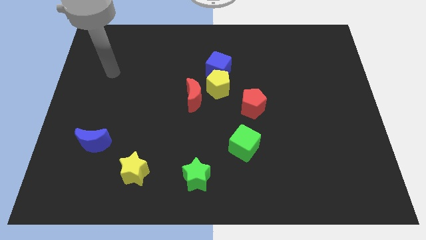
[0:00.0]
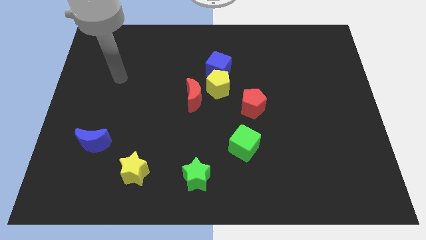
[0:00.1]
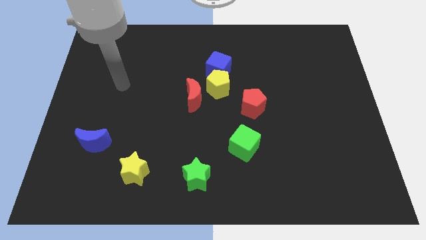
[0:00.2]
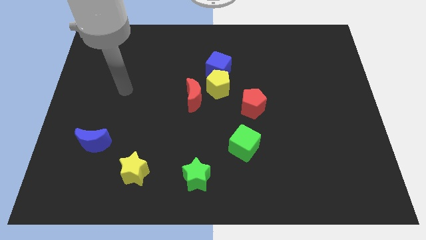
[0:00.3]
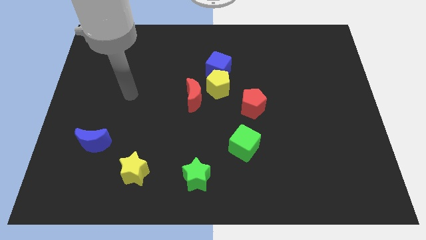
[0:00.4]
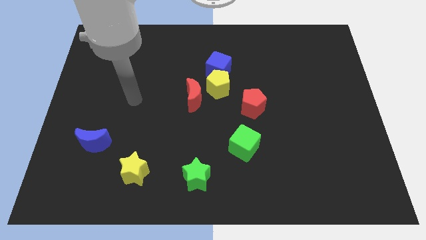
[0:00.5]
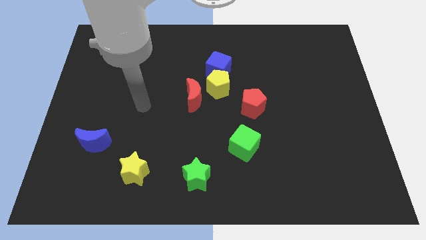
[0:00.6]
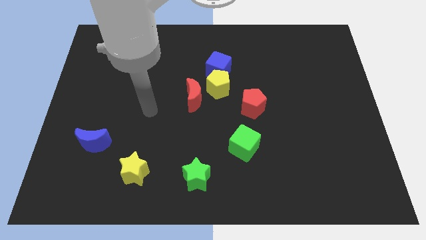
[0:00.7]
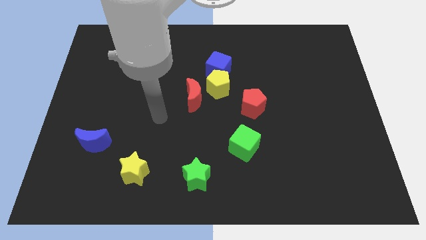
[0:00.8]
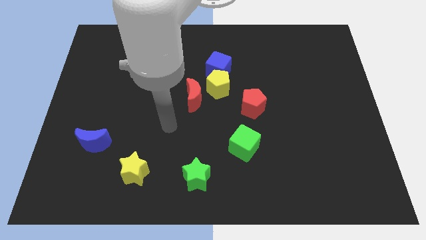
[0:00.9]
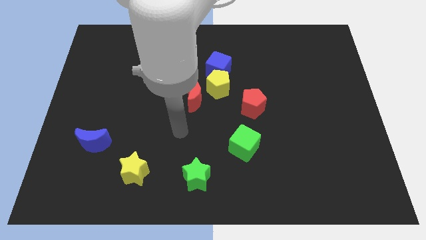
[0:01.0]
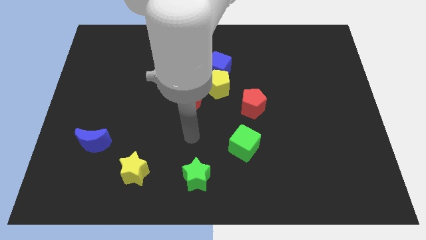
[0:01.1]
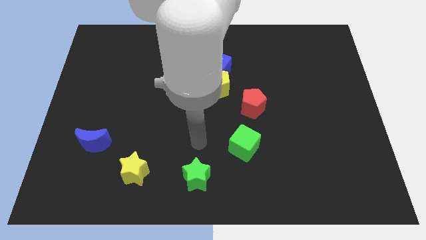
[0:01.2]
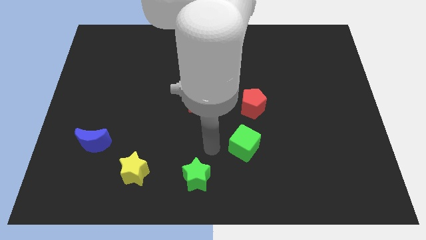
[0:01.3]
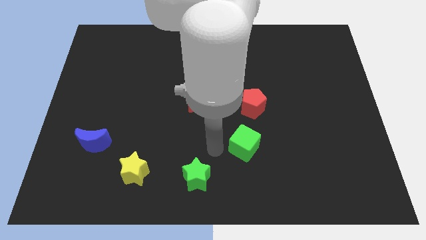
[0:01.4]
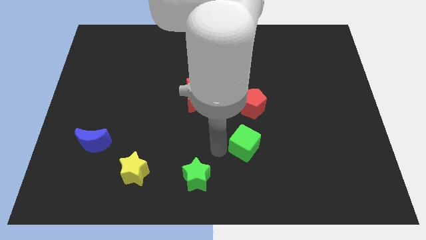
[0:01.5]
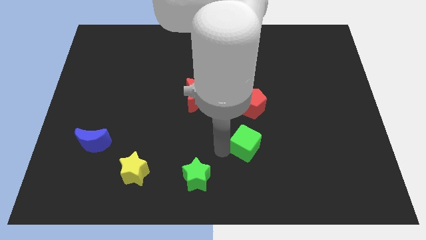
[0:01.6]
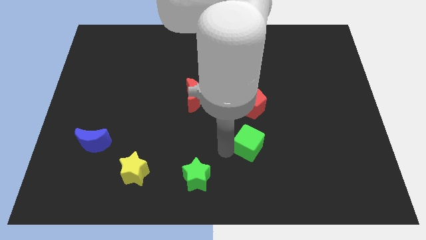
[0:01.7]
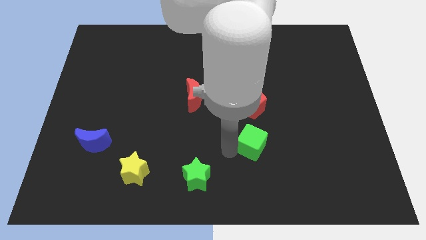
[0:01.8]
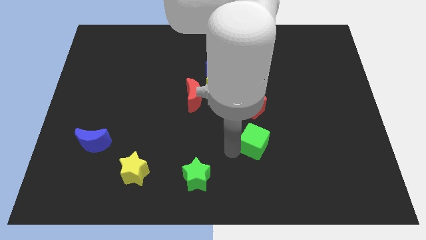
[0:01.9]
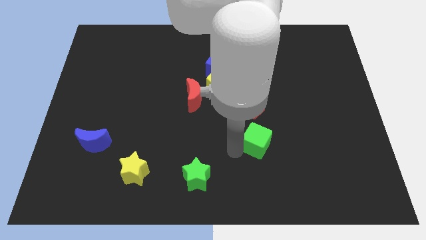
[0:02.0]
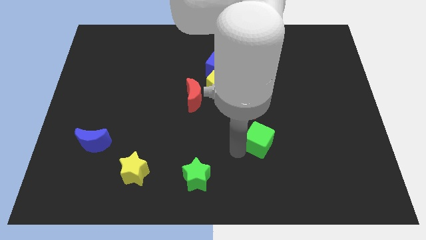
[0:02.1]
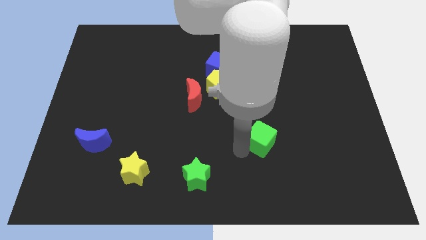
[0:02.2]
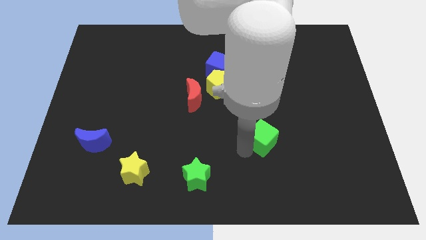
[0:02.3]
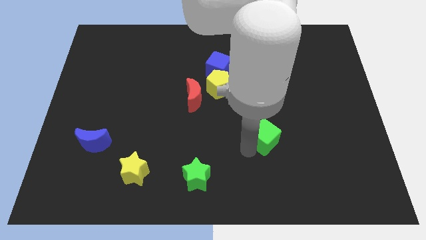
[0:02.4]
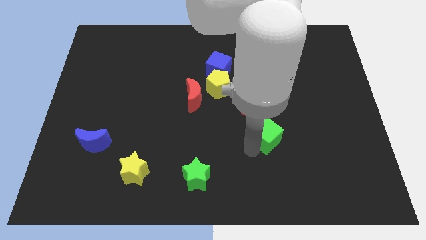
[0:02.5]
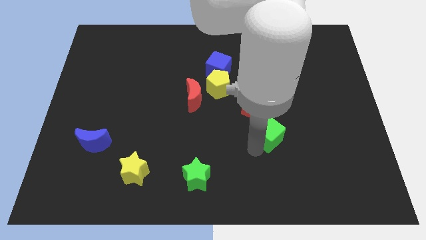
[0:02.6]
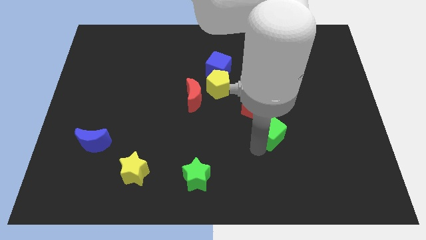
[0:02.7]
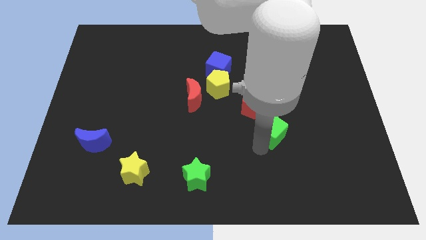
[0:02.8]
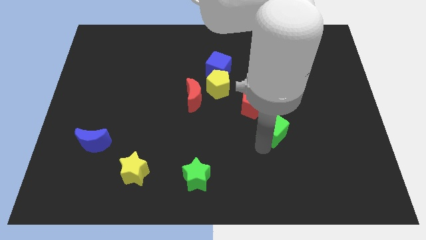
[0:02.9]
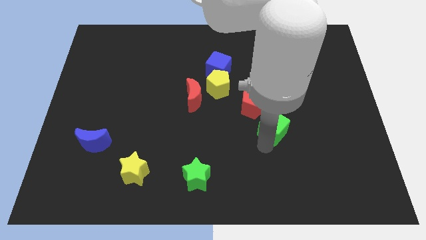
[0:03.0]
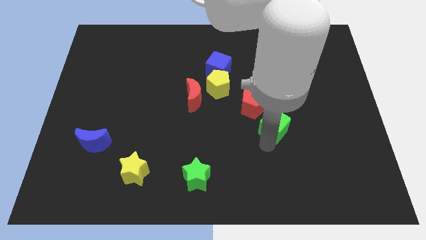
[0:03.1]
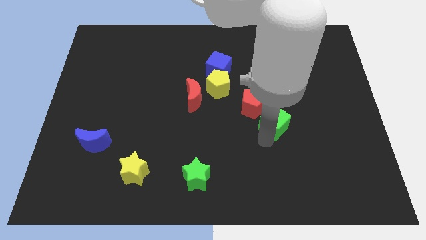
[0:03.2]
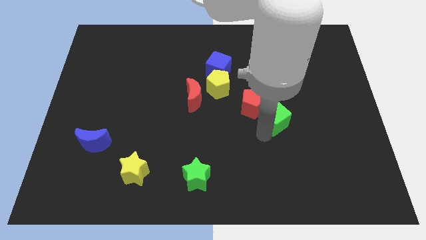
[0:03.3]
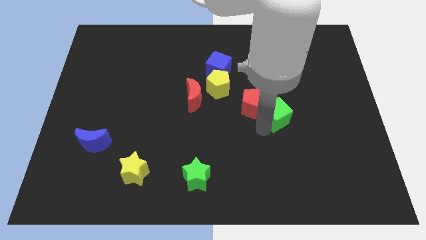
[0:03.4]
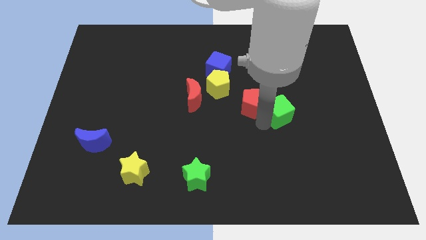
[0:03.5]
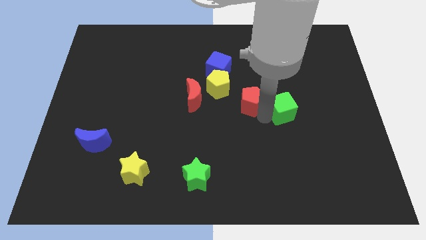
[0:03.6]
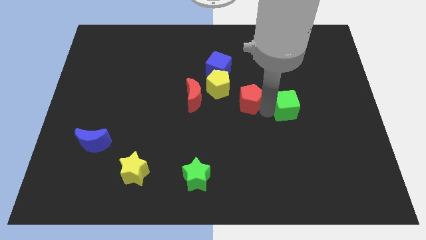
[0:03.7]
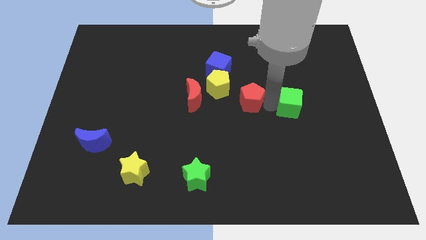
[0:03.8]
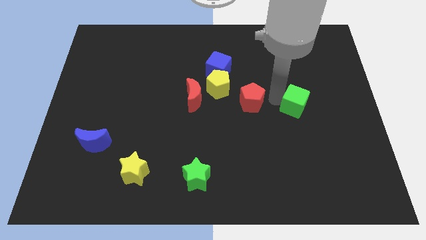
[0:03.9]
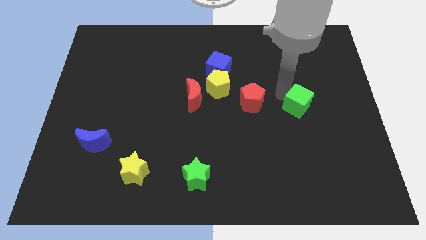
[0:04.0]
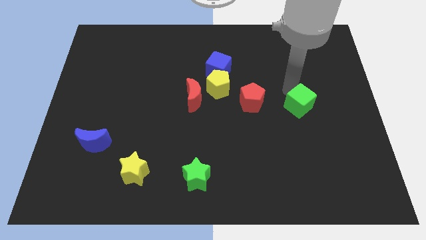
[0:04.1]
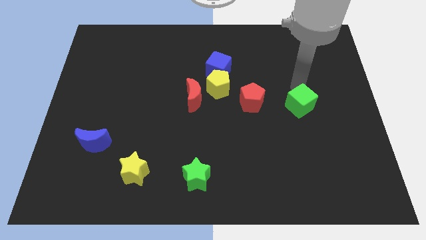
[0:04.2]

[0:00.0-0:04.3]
slightly slide the green cube to the right

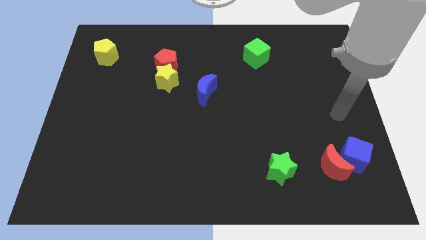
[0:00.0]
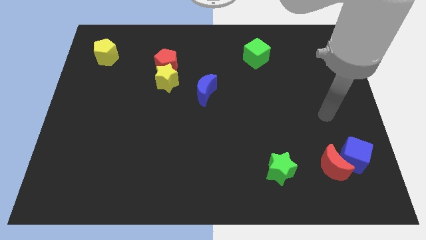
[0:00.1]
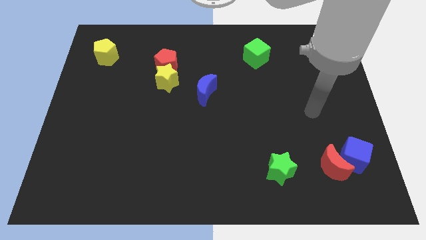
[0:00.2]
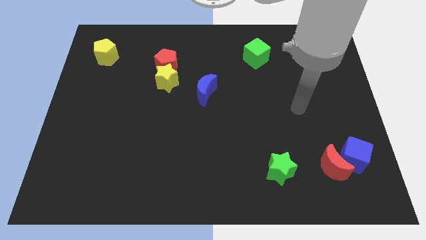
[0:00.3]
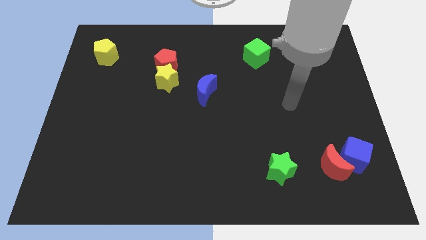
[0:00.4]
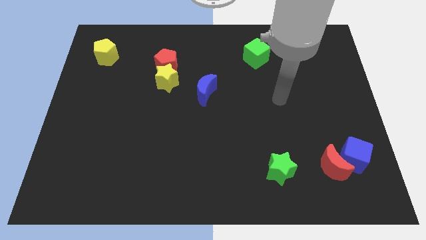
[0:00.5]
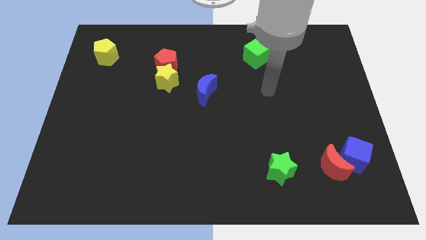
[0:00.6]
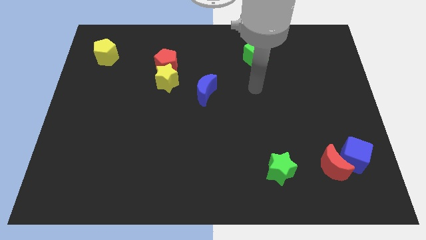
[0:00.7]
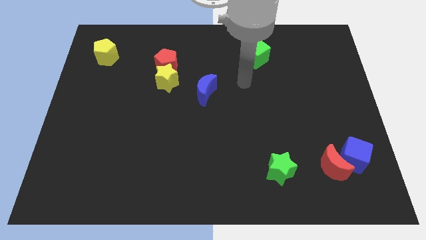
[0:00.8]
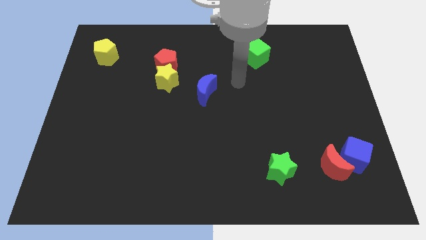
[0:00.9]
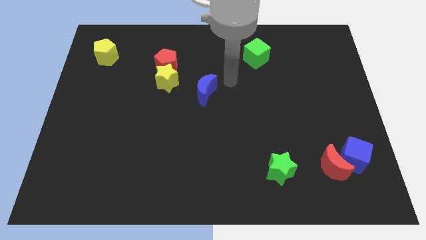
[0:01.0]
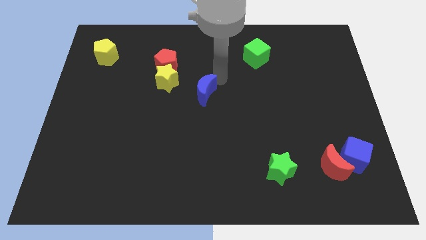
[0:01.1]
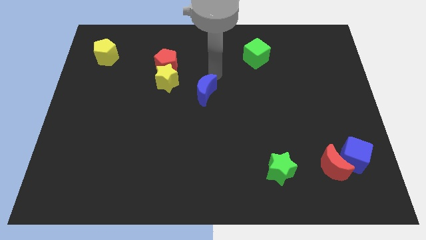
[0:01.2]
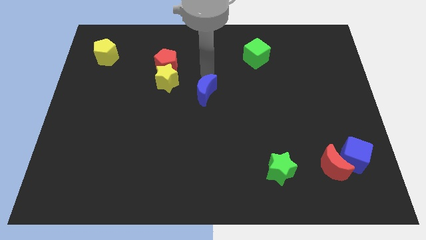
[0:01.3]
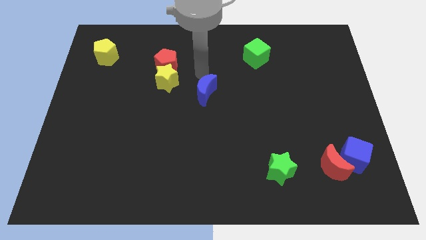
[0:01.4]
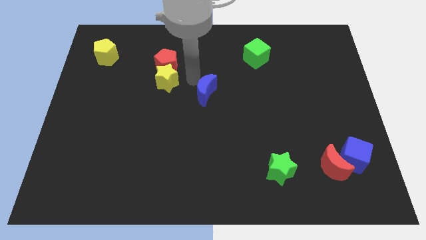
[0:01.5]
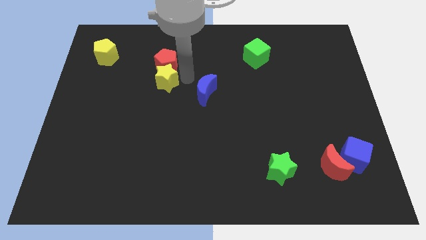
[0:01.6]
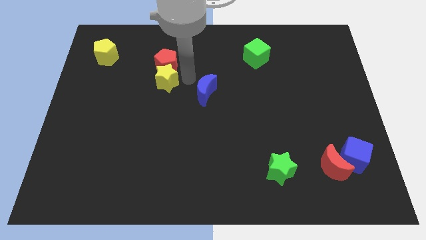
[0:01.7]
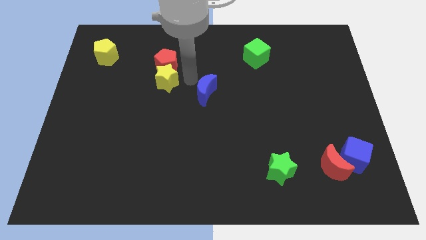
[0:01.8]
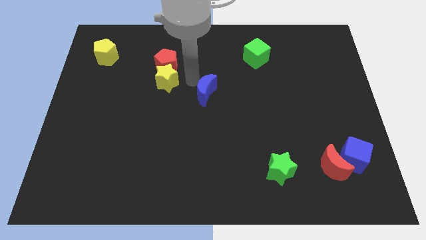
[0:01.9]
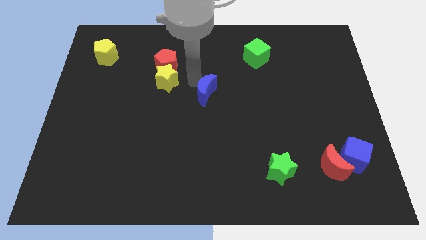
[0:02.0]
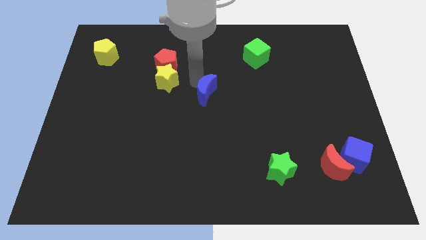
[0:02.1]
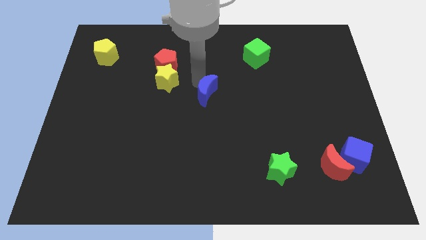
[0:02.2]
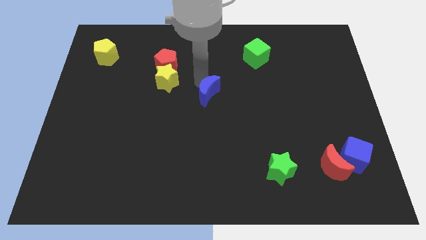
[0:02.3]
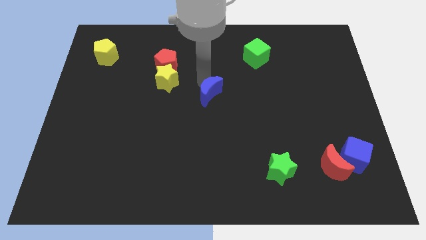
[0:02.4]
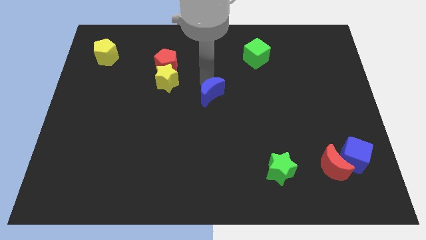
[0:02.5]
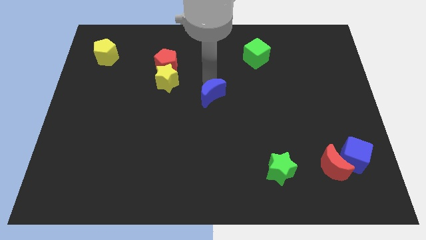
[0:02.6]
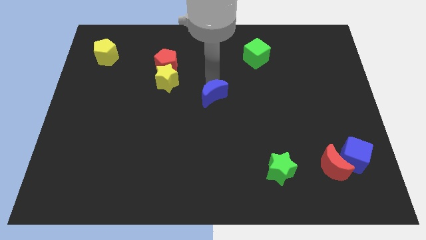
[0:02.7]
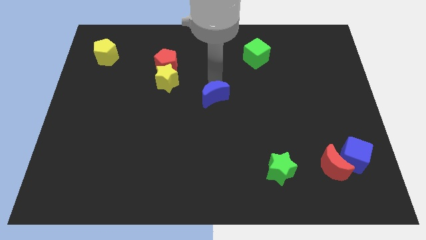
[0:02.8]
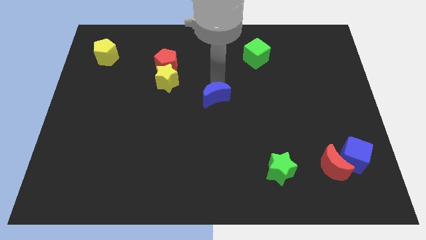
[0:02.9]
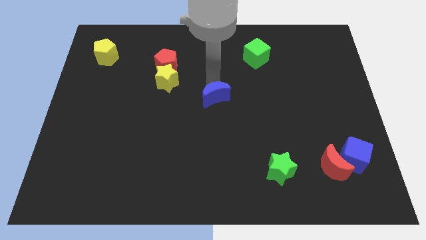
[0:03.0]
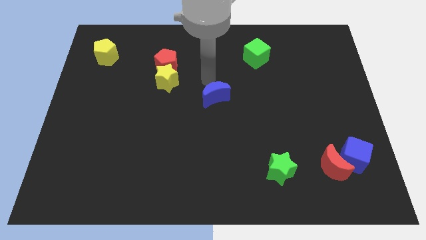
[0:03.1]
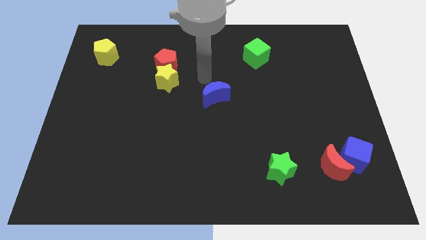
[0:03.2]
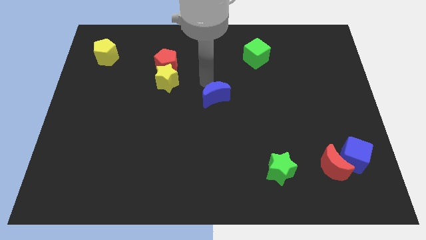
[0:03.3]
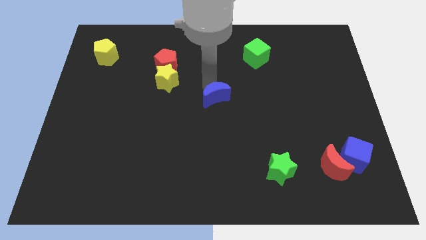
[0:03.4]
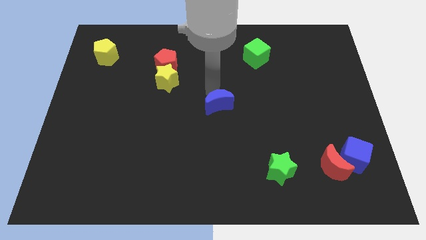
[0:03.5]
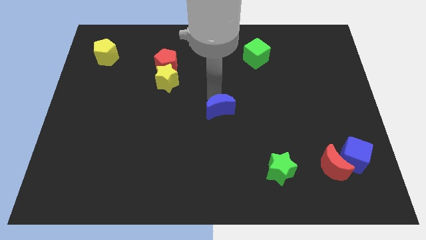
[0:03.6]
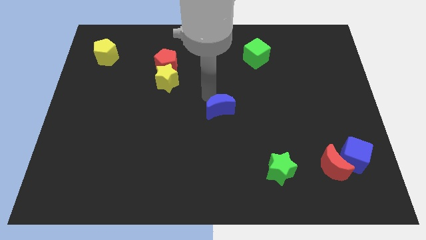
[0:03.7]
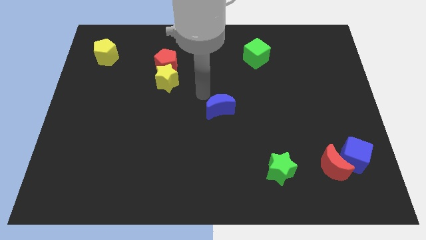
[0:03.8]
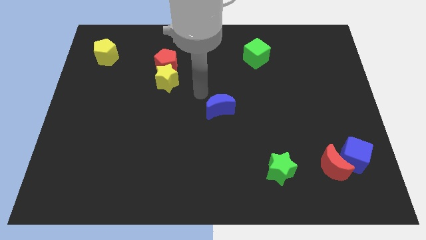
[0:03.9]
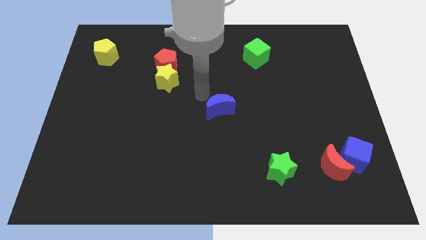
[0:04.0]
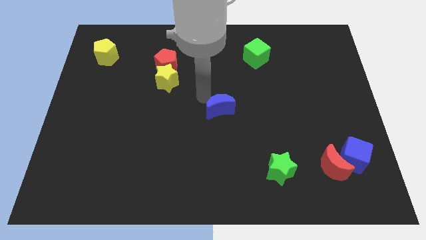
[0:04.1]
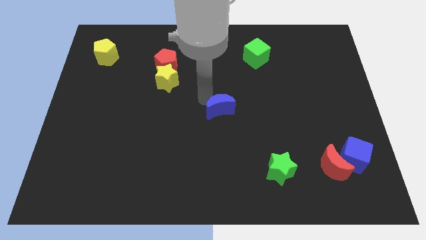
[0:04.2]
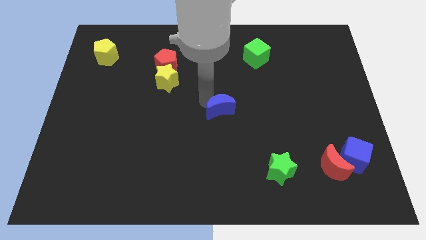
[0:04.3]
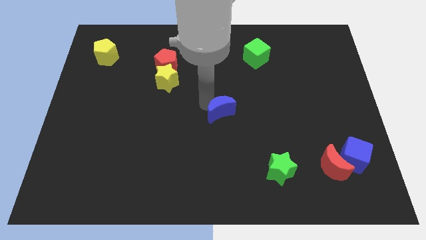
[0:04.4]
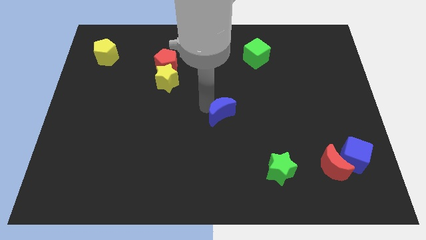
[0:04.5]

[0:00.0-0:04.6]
push the blue moon a bit diagonally downwards and to the right
